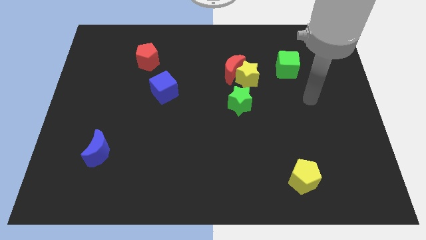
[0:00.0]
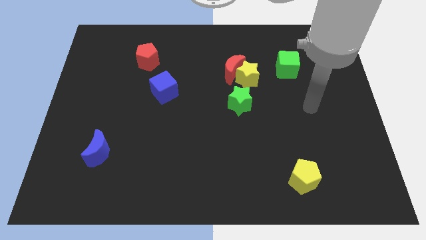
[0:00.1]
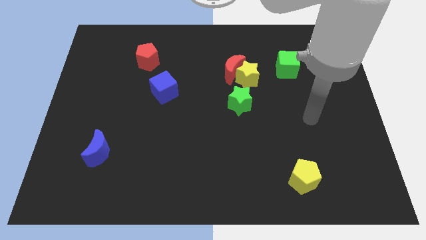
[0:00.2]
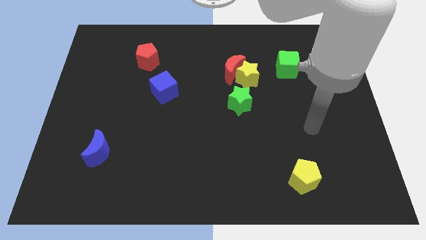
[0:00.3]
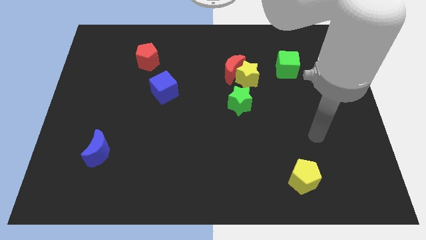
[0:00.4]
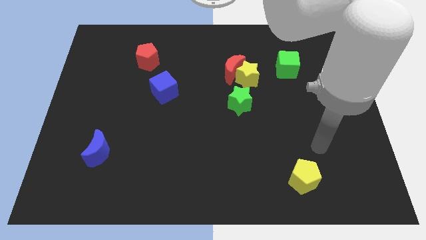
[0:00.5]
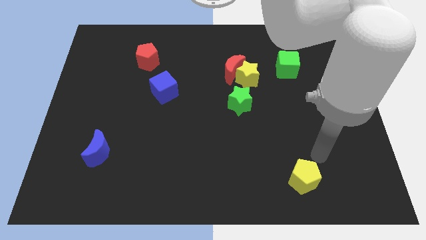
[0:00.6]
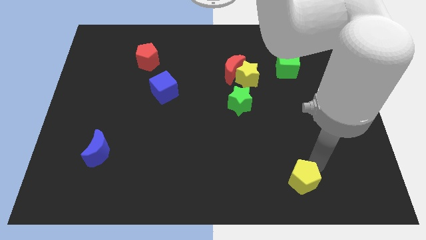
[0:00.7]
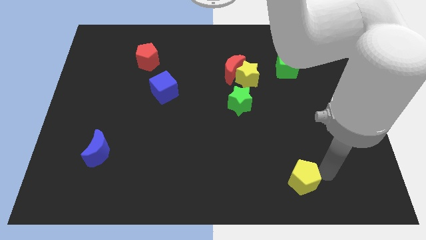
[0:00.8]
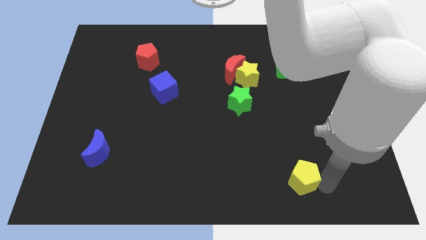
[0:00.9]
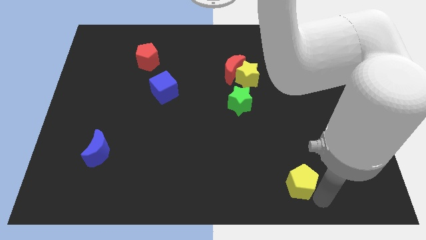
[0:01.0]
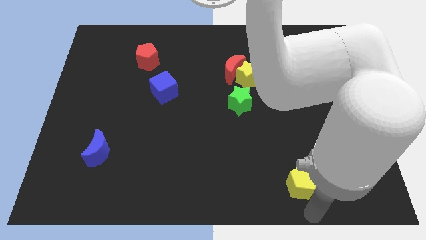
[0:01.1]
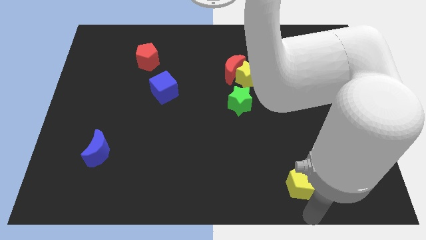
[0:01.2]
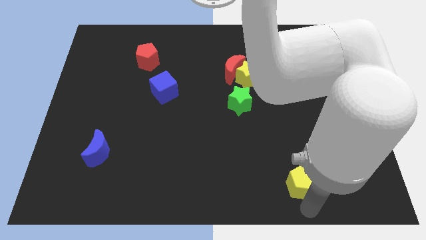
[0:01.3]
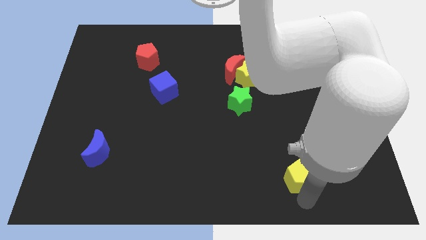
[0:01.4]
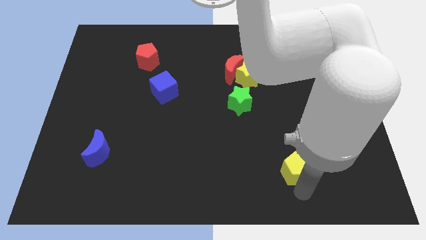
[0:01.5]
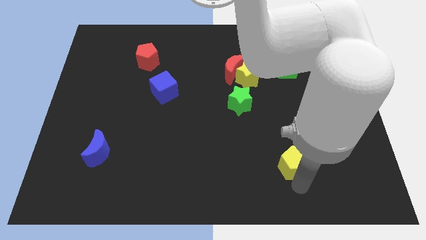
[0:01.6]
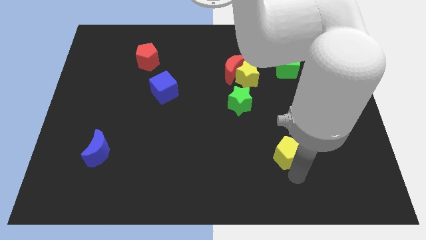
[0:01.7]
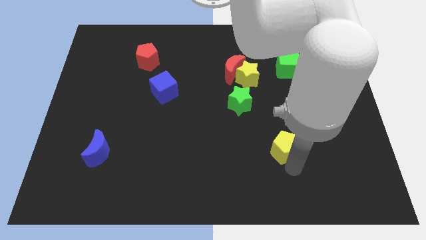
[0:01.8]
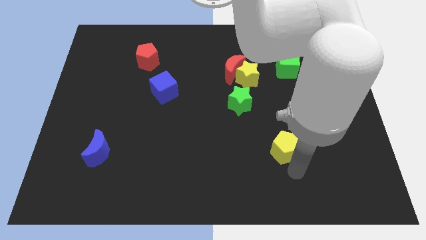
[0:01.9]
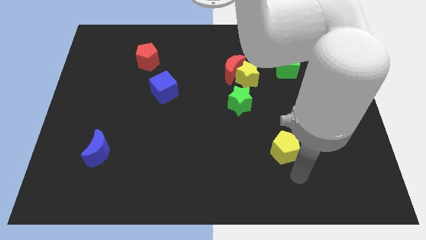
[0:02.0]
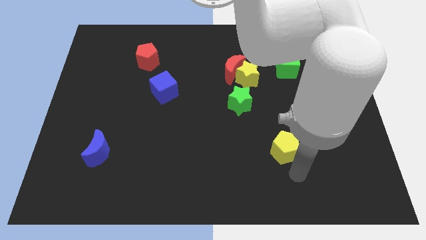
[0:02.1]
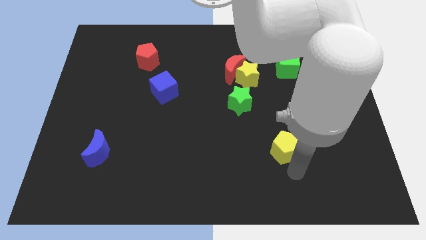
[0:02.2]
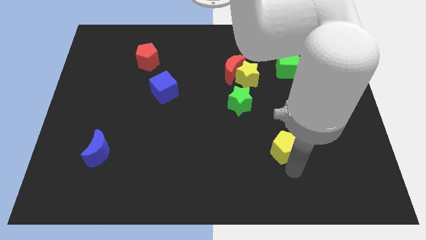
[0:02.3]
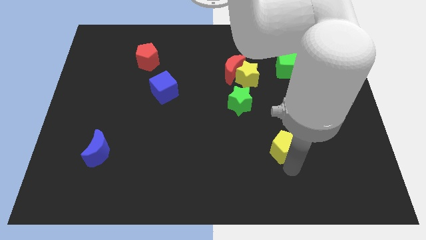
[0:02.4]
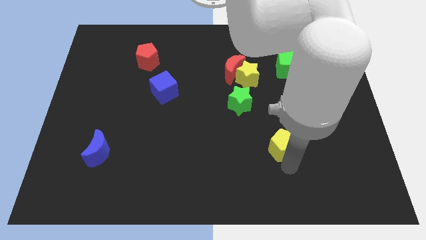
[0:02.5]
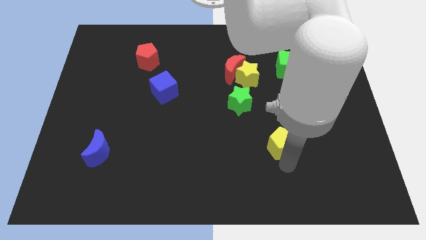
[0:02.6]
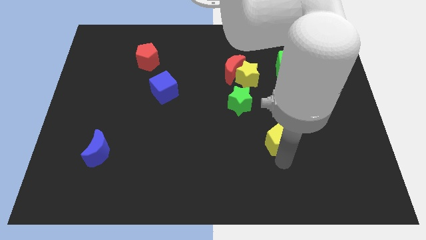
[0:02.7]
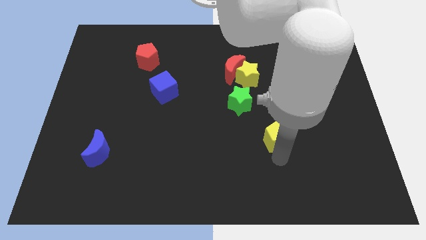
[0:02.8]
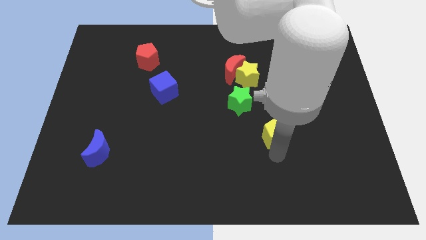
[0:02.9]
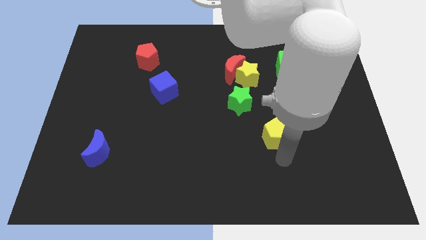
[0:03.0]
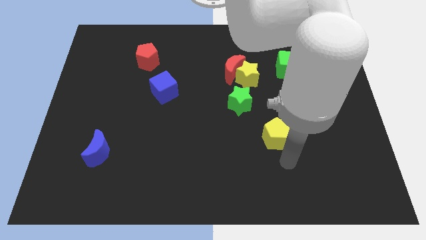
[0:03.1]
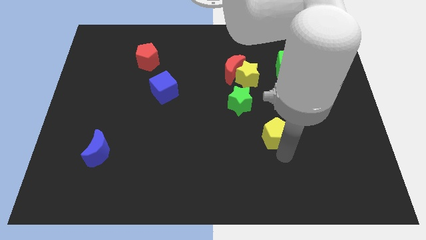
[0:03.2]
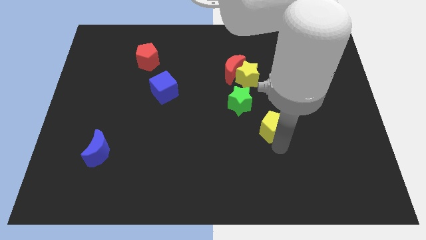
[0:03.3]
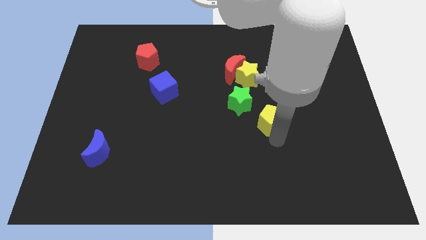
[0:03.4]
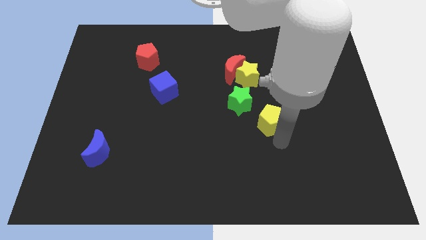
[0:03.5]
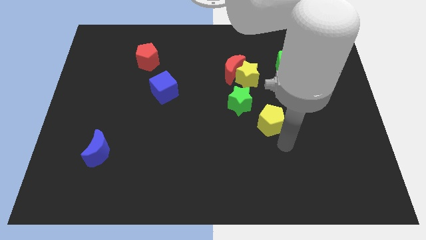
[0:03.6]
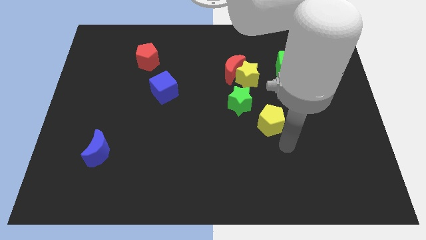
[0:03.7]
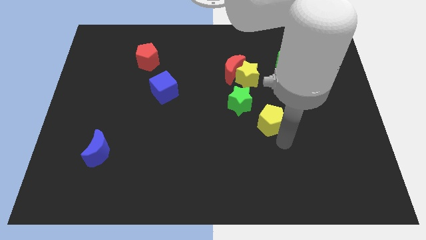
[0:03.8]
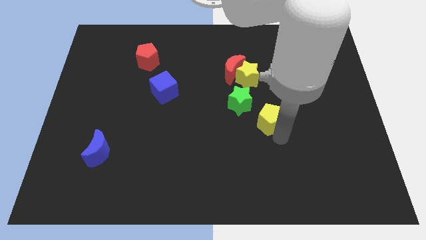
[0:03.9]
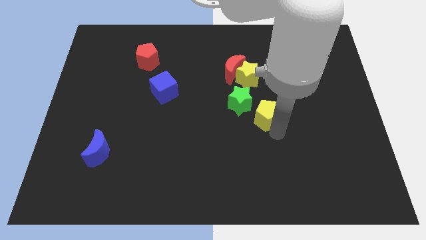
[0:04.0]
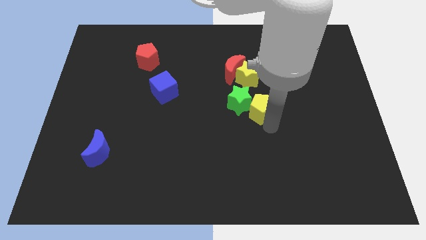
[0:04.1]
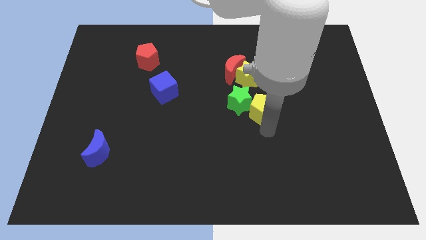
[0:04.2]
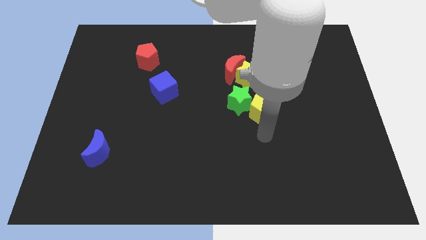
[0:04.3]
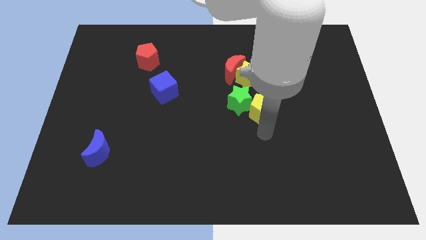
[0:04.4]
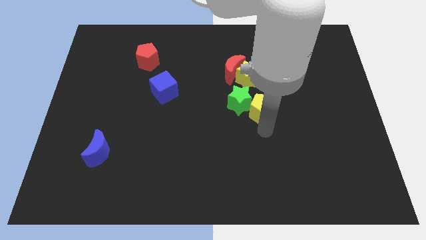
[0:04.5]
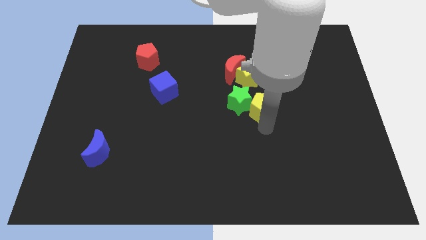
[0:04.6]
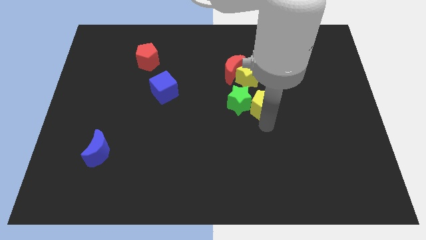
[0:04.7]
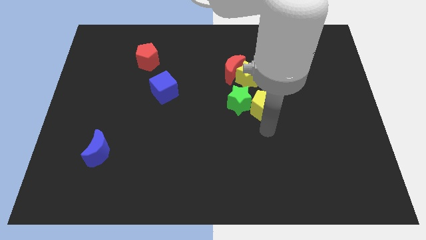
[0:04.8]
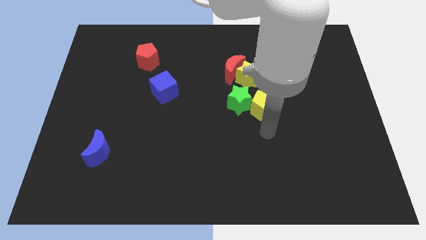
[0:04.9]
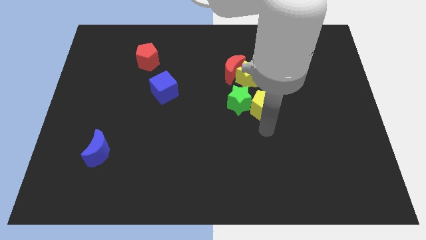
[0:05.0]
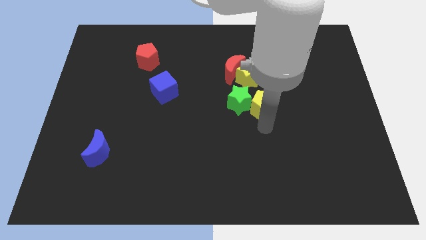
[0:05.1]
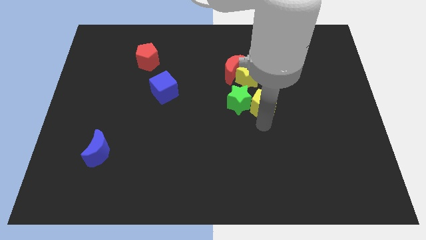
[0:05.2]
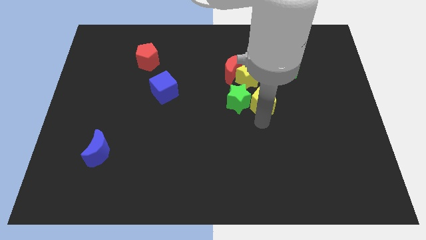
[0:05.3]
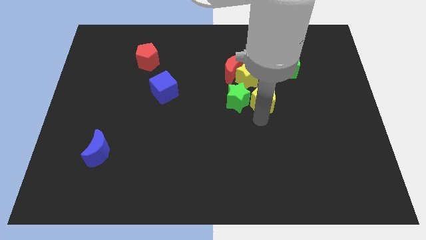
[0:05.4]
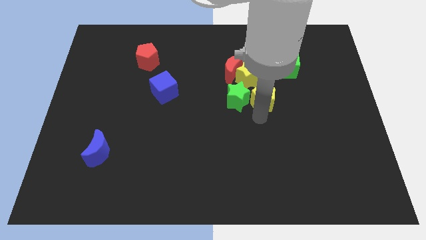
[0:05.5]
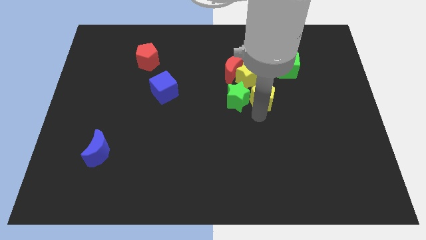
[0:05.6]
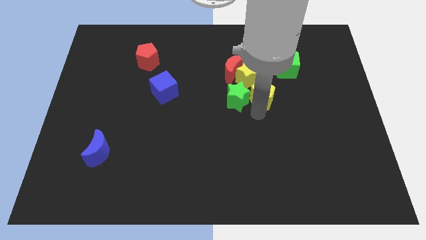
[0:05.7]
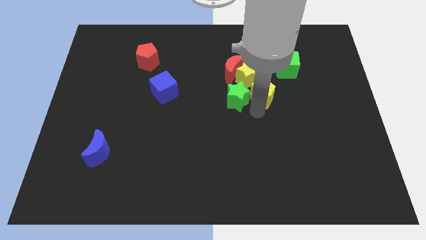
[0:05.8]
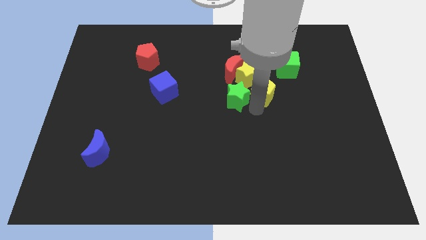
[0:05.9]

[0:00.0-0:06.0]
push the yellow pentagon next to the yellow star

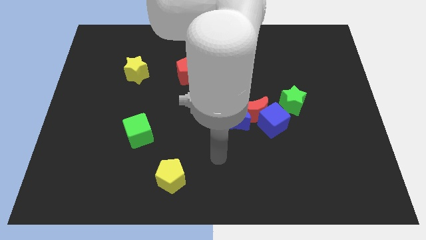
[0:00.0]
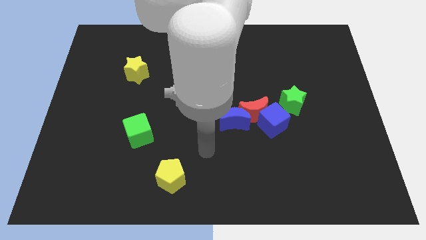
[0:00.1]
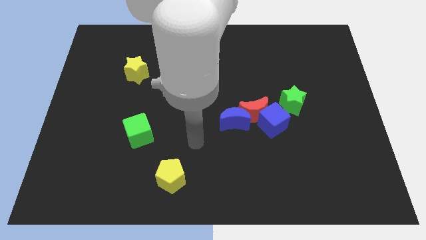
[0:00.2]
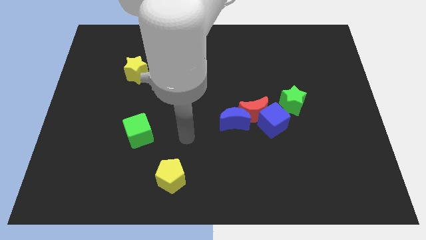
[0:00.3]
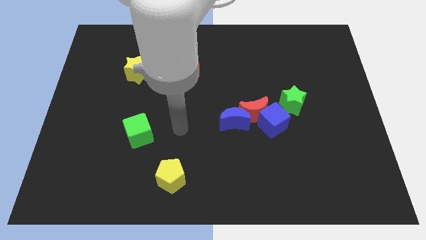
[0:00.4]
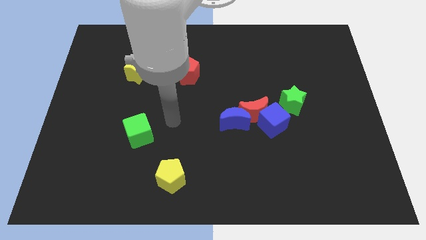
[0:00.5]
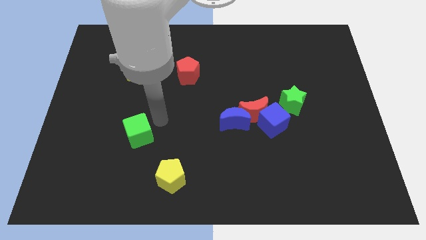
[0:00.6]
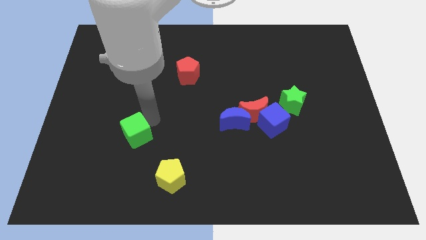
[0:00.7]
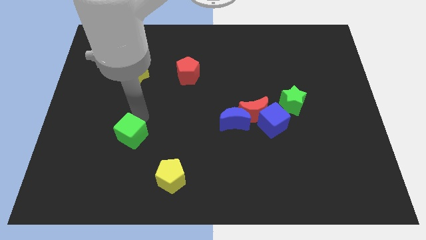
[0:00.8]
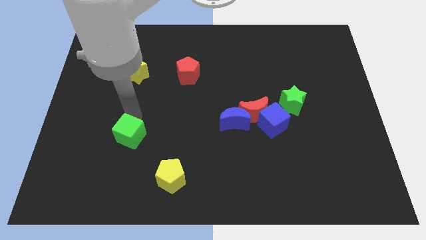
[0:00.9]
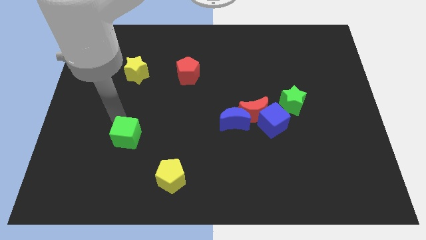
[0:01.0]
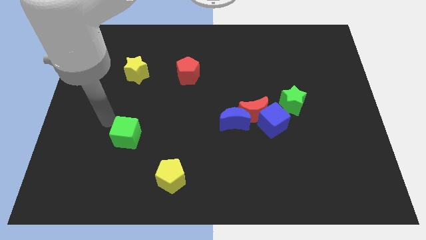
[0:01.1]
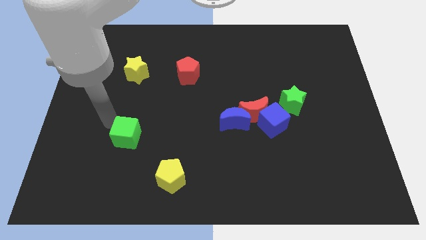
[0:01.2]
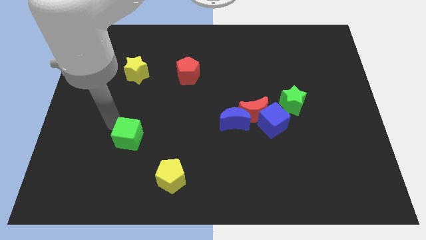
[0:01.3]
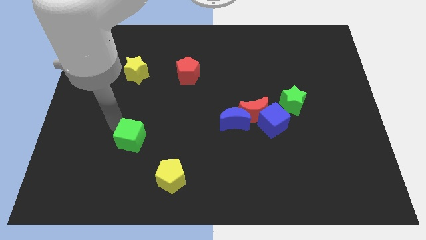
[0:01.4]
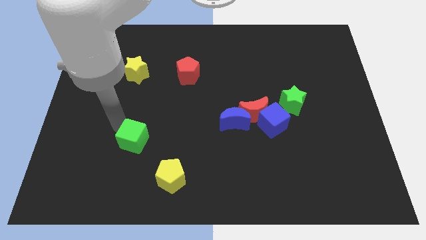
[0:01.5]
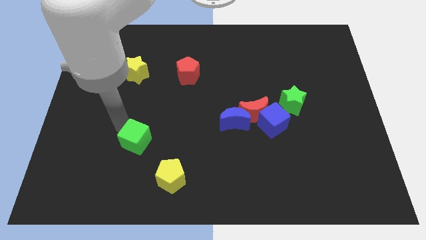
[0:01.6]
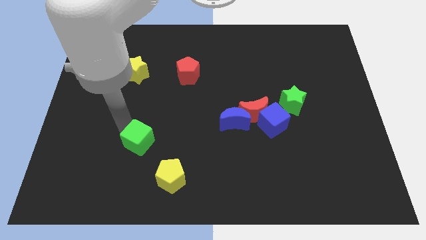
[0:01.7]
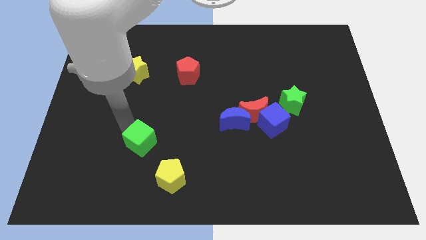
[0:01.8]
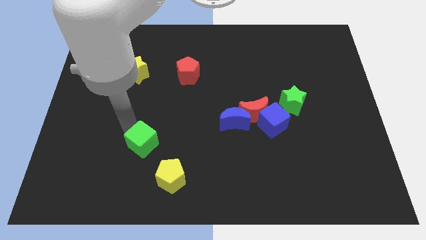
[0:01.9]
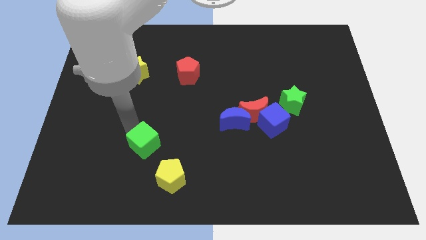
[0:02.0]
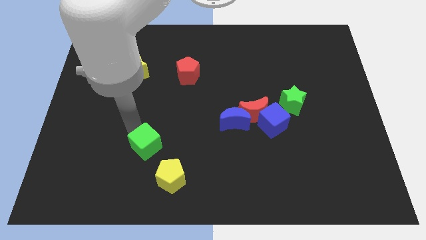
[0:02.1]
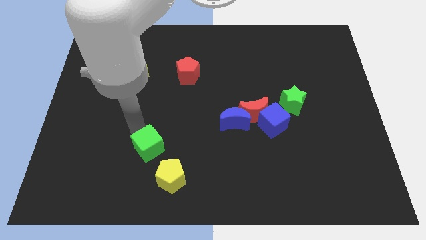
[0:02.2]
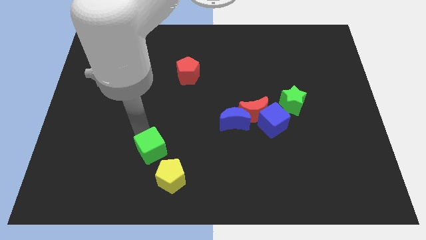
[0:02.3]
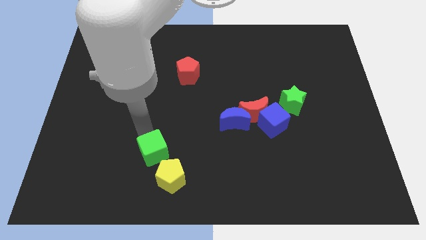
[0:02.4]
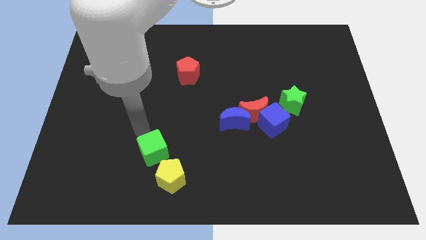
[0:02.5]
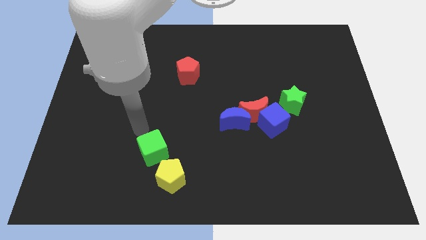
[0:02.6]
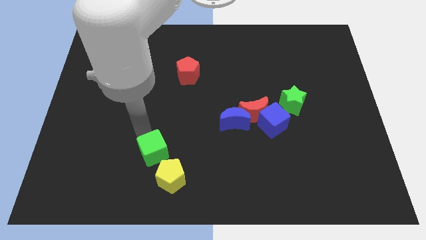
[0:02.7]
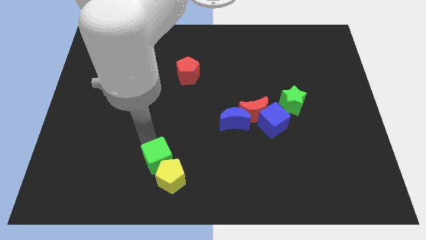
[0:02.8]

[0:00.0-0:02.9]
slide the green cube to the yellow pentagon
